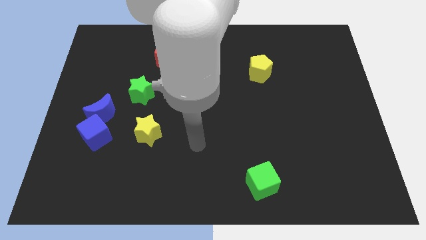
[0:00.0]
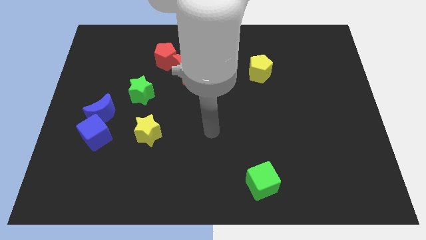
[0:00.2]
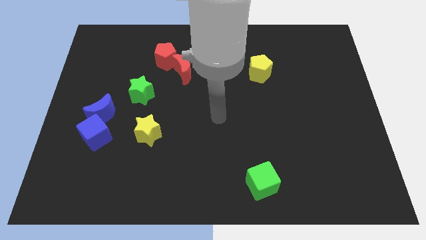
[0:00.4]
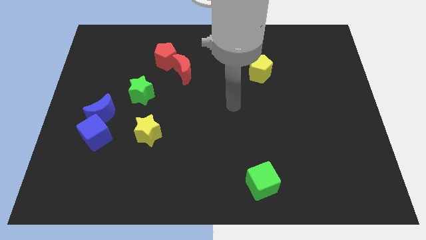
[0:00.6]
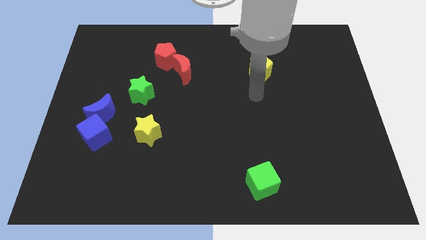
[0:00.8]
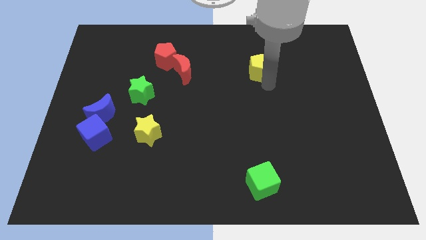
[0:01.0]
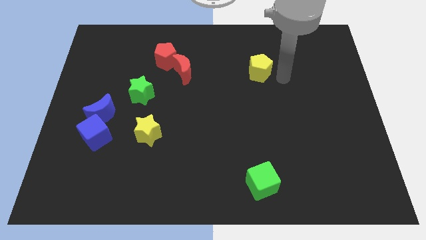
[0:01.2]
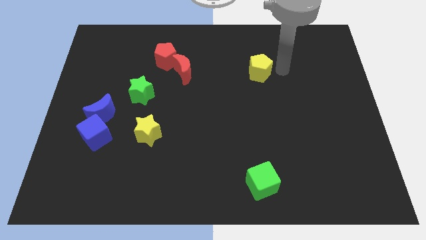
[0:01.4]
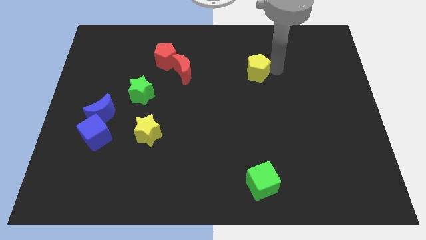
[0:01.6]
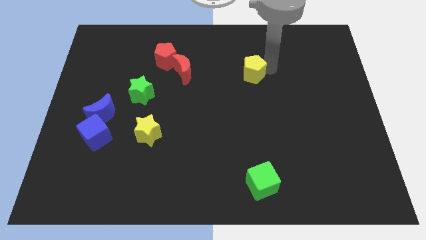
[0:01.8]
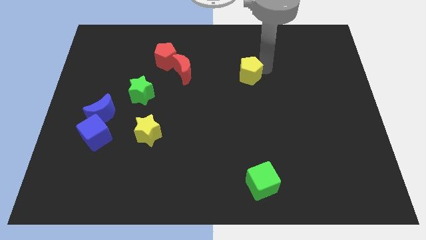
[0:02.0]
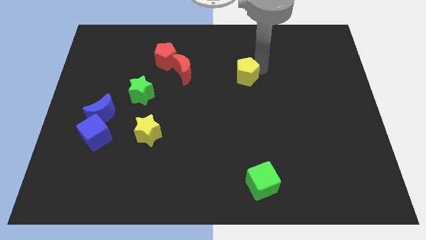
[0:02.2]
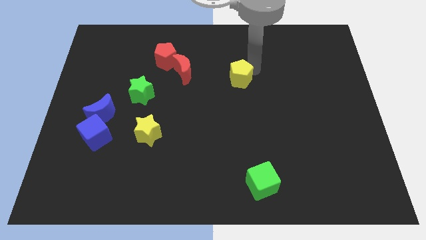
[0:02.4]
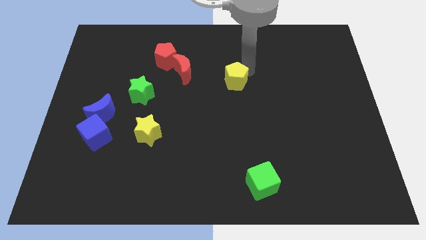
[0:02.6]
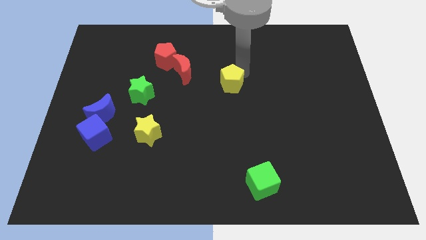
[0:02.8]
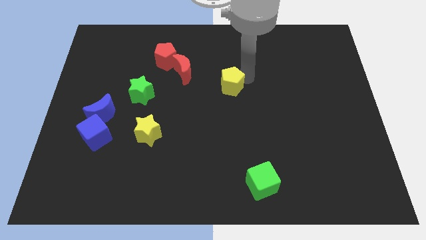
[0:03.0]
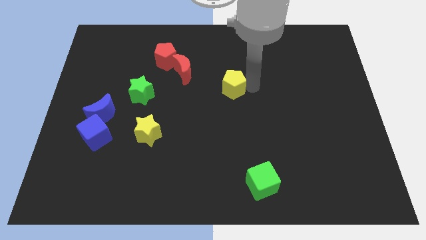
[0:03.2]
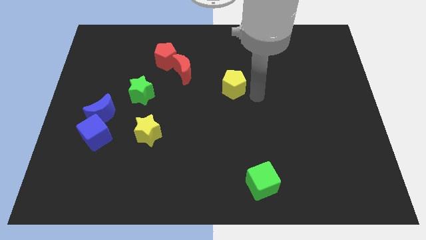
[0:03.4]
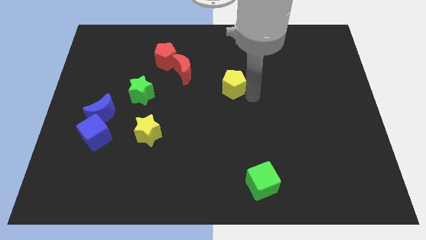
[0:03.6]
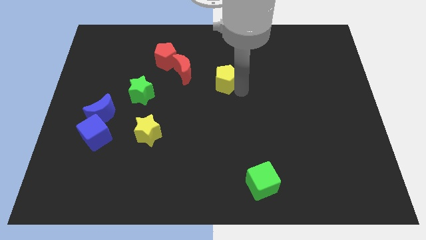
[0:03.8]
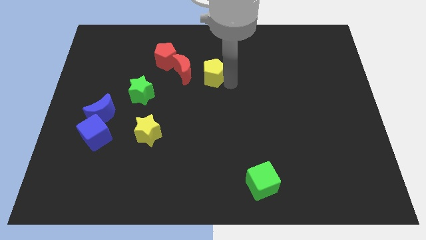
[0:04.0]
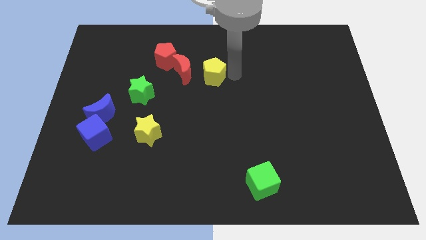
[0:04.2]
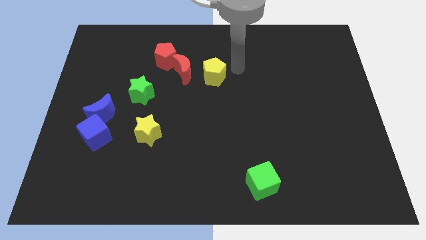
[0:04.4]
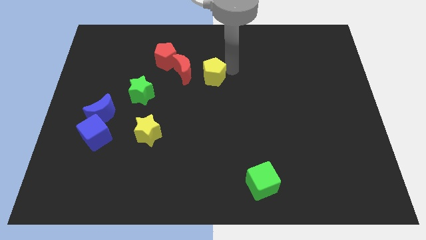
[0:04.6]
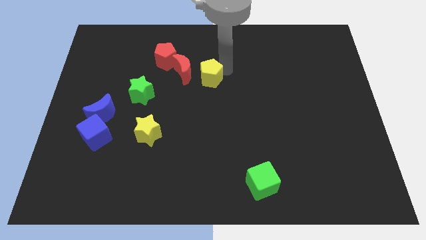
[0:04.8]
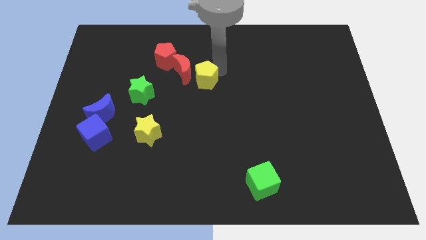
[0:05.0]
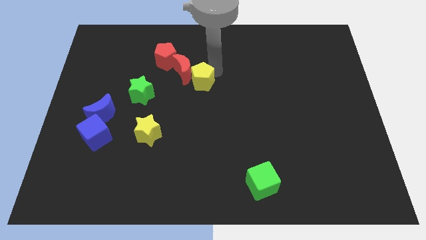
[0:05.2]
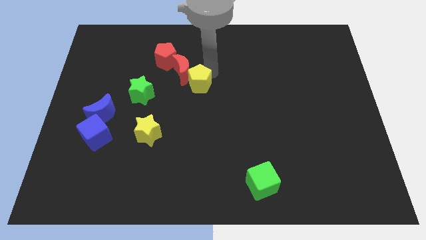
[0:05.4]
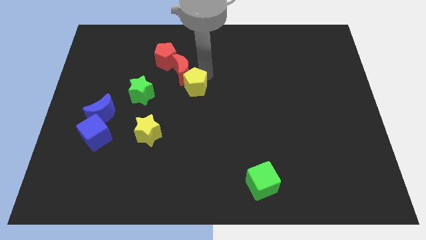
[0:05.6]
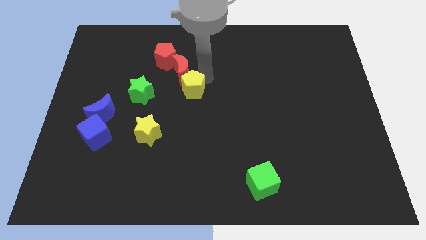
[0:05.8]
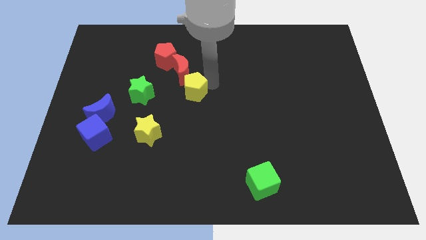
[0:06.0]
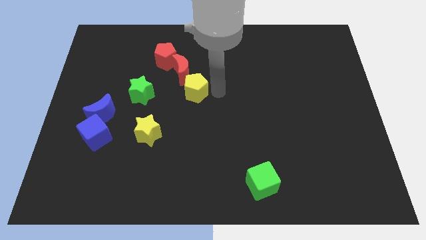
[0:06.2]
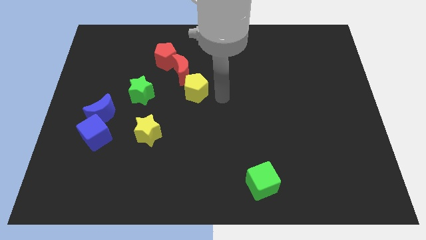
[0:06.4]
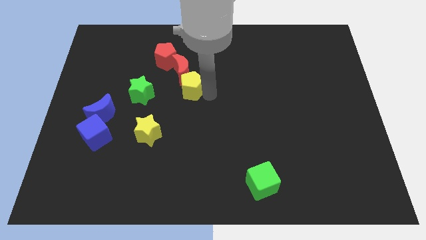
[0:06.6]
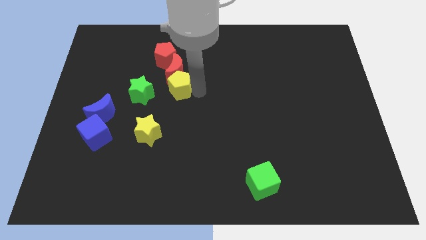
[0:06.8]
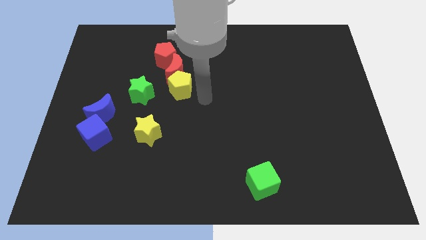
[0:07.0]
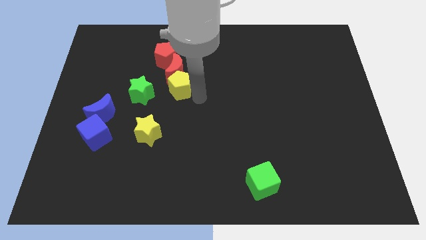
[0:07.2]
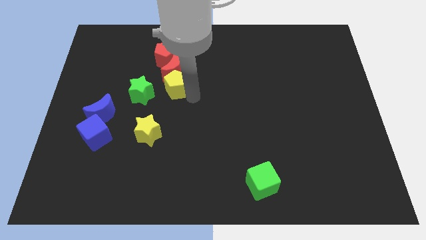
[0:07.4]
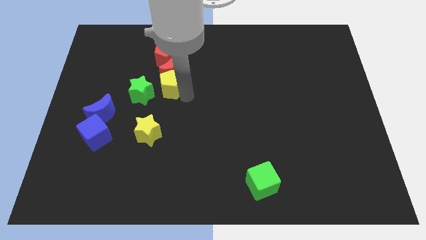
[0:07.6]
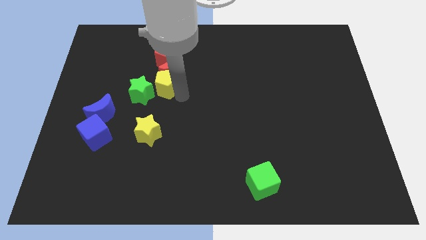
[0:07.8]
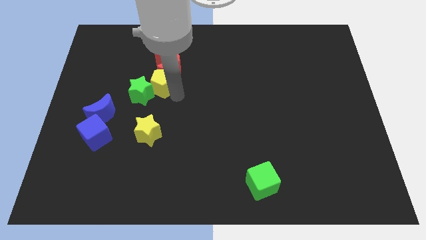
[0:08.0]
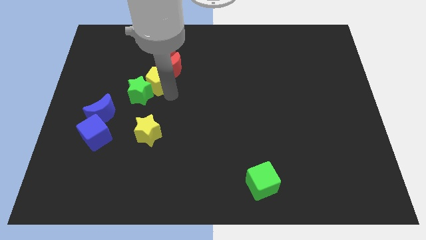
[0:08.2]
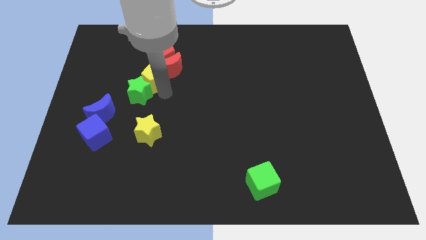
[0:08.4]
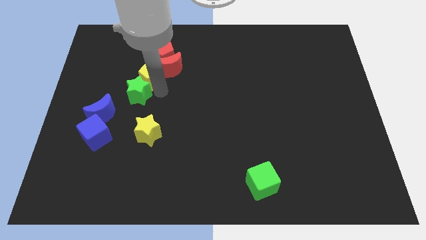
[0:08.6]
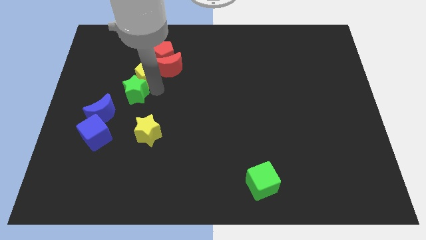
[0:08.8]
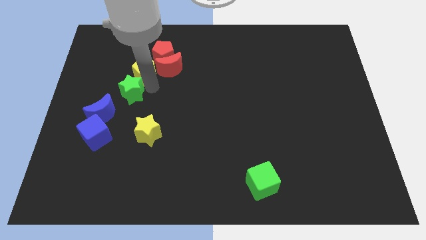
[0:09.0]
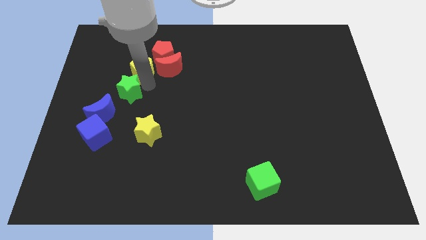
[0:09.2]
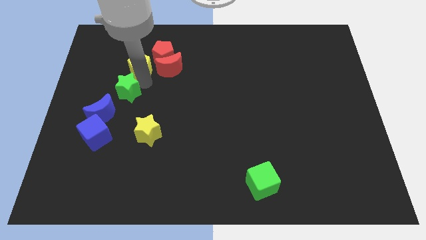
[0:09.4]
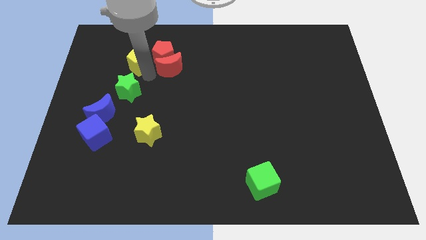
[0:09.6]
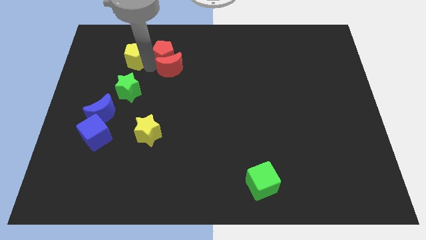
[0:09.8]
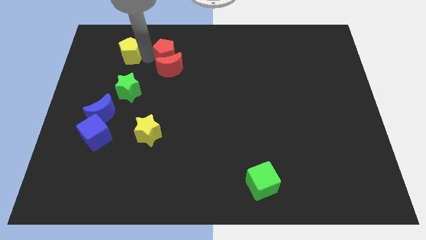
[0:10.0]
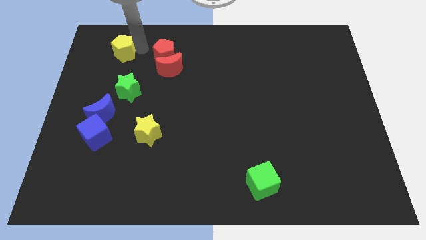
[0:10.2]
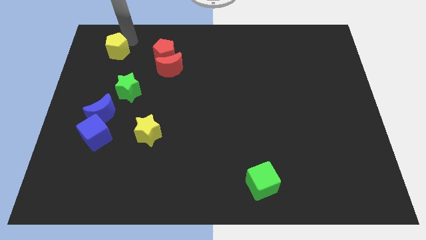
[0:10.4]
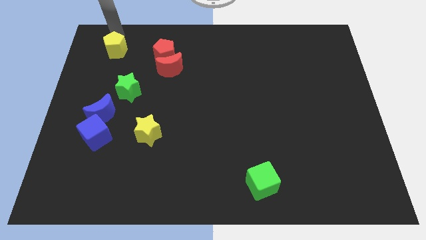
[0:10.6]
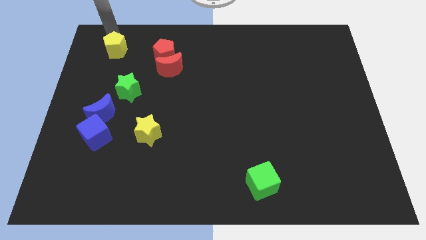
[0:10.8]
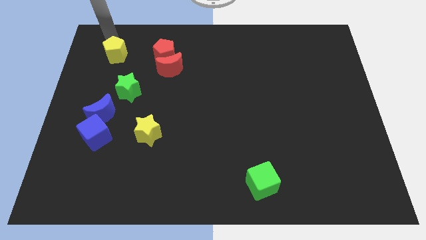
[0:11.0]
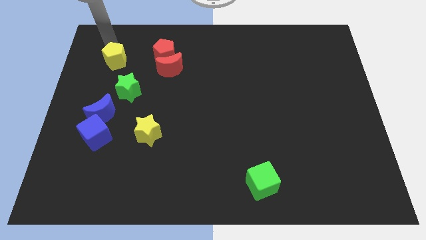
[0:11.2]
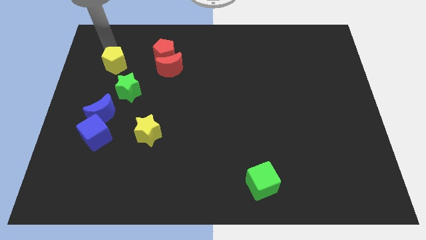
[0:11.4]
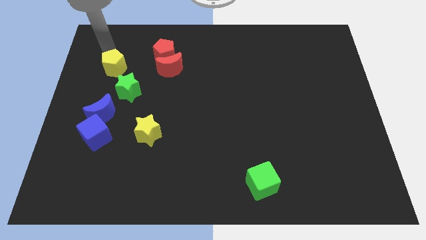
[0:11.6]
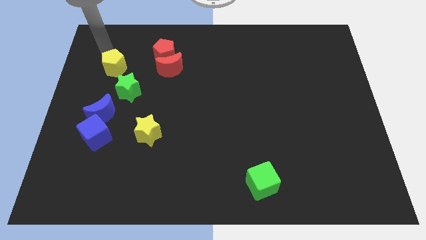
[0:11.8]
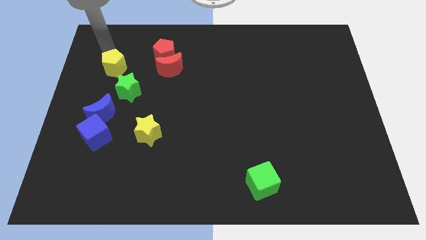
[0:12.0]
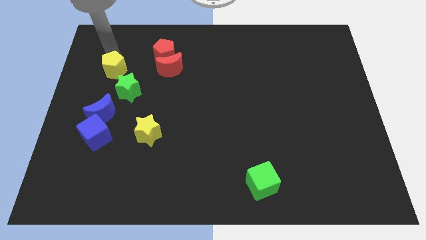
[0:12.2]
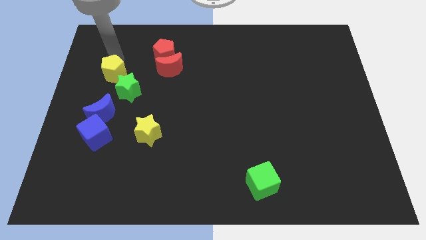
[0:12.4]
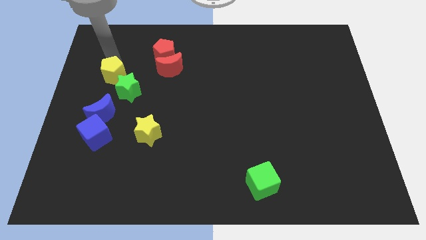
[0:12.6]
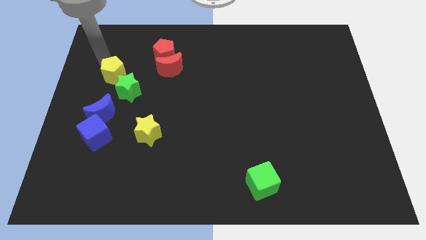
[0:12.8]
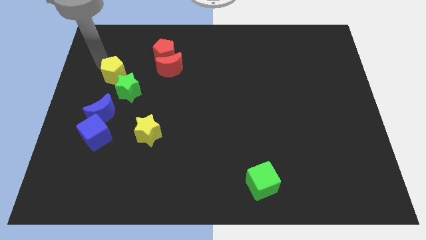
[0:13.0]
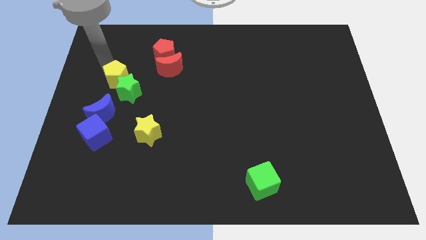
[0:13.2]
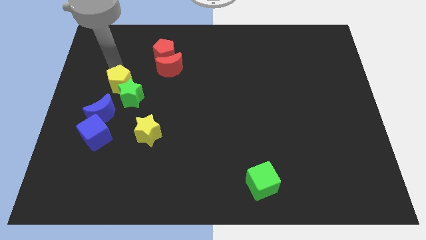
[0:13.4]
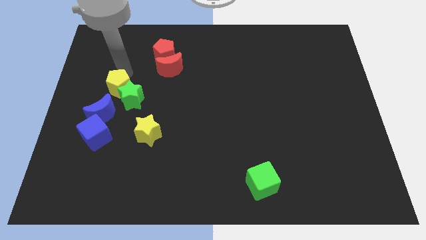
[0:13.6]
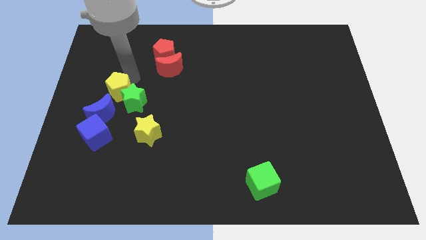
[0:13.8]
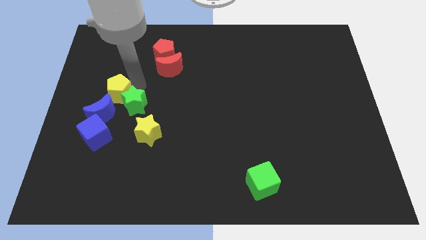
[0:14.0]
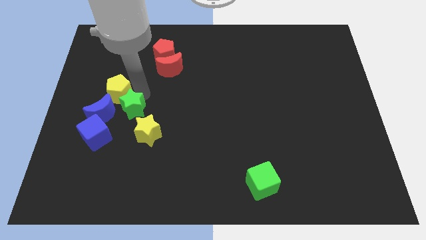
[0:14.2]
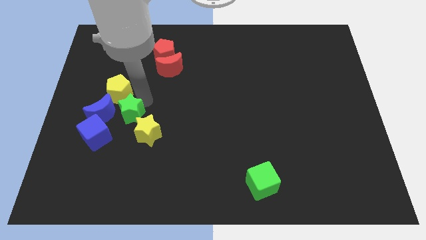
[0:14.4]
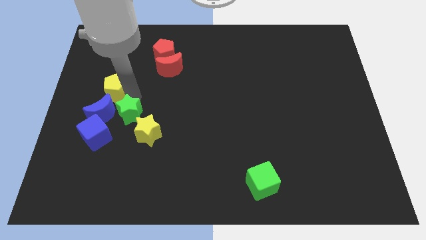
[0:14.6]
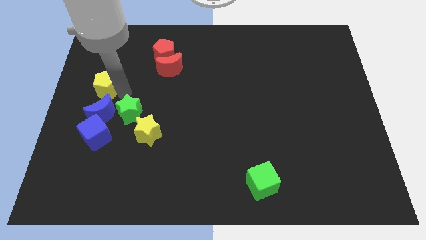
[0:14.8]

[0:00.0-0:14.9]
slide the yellow pentagon to the left side of the board
